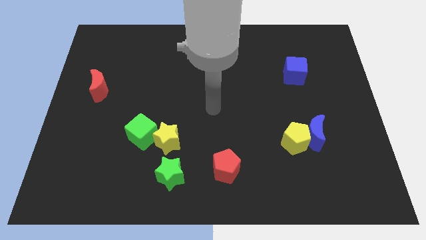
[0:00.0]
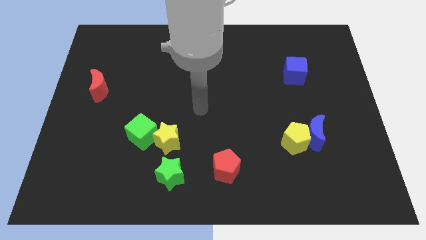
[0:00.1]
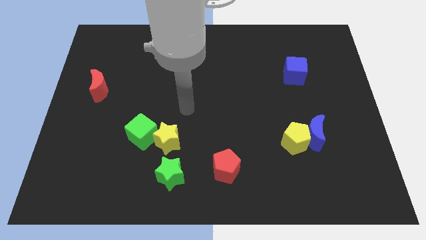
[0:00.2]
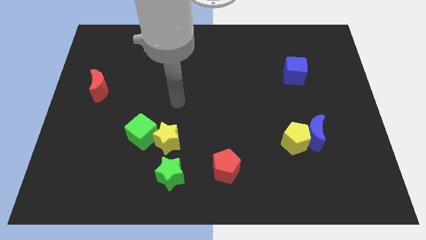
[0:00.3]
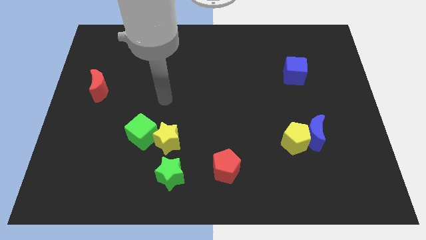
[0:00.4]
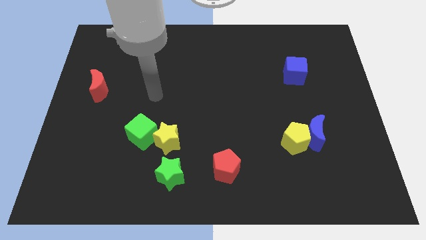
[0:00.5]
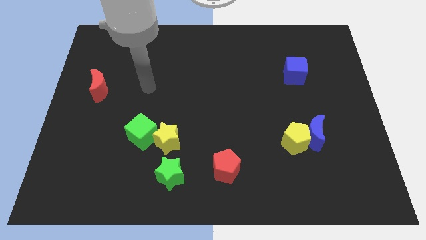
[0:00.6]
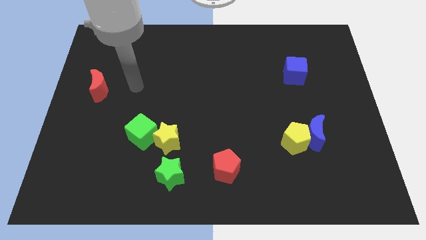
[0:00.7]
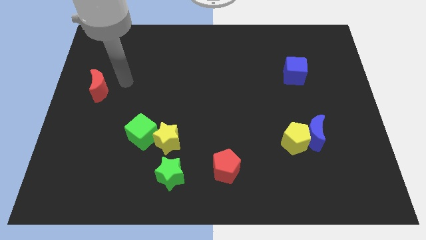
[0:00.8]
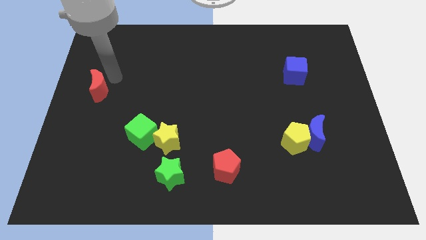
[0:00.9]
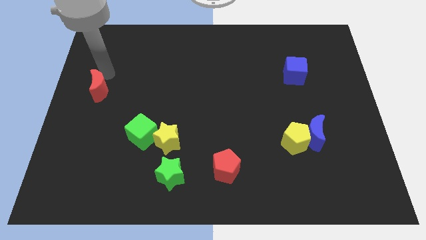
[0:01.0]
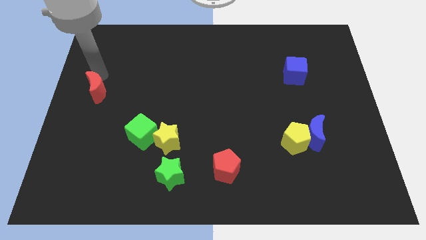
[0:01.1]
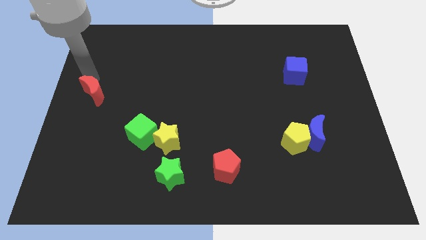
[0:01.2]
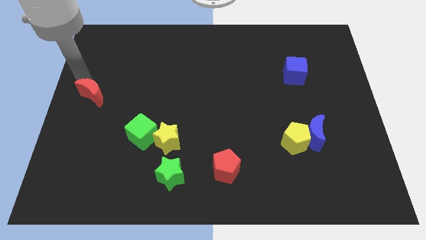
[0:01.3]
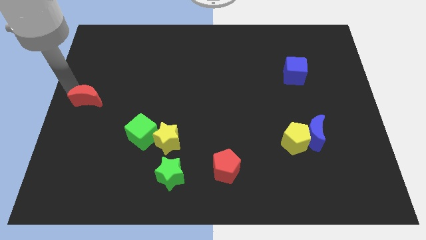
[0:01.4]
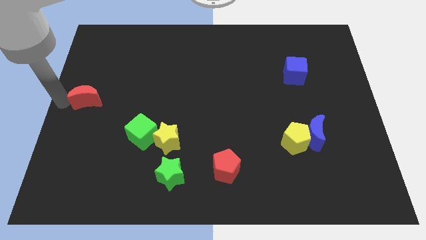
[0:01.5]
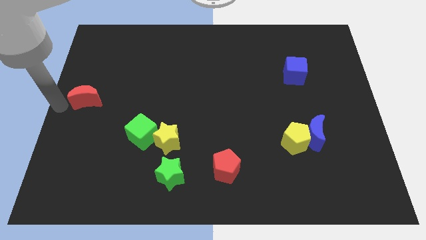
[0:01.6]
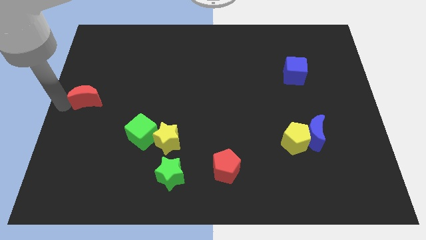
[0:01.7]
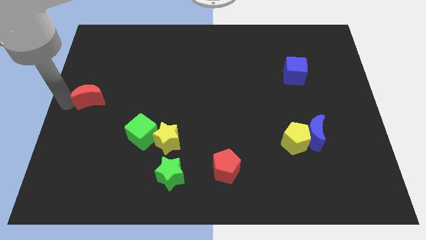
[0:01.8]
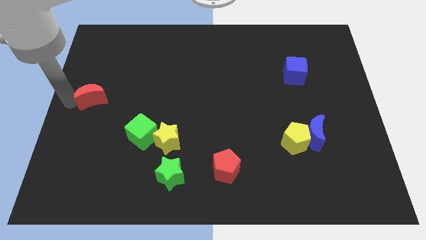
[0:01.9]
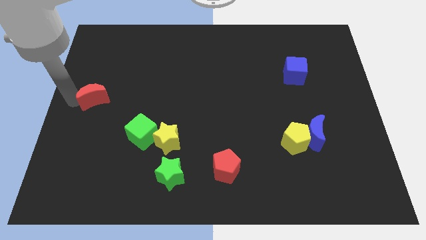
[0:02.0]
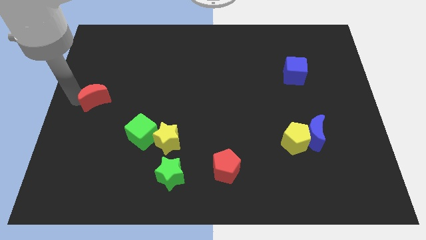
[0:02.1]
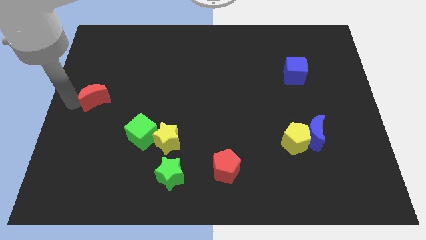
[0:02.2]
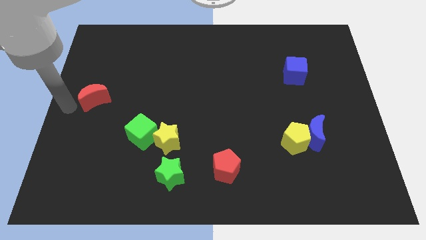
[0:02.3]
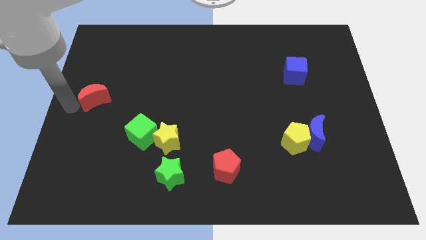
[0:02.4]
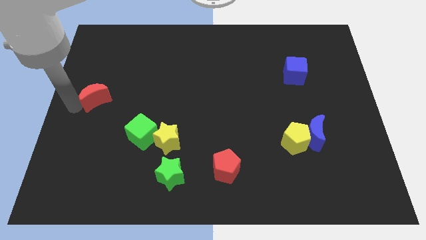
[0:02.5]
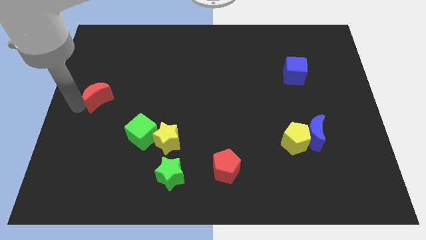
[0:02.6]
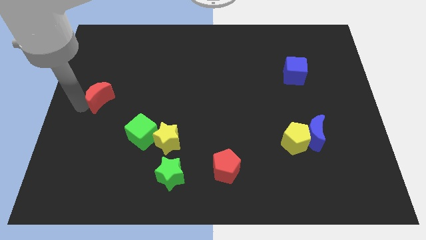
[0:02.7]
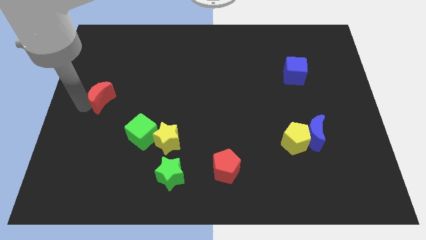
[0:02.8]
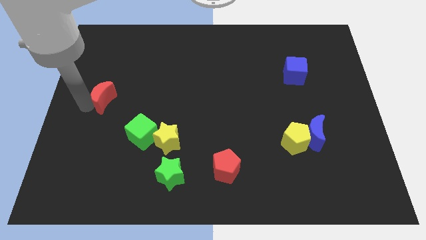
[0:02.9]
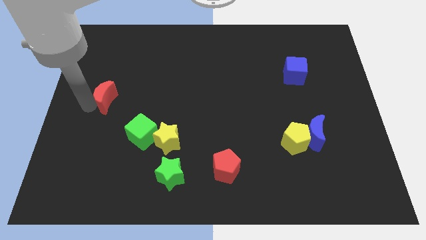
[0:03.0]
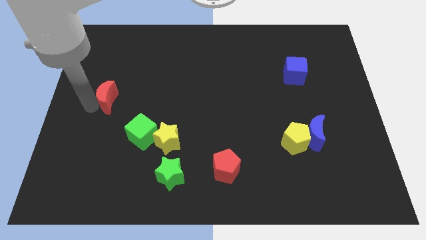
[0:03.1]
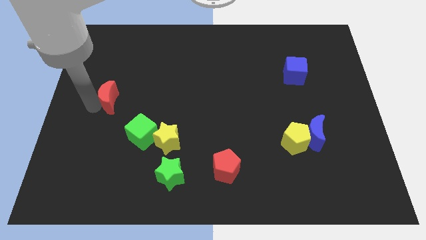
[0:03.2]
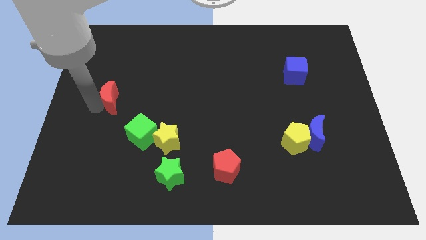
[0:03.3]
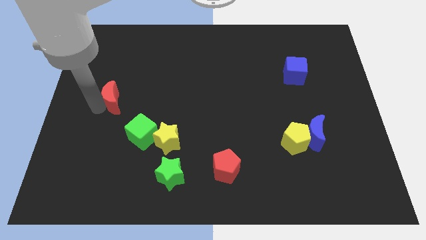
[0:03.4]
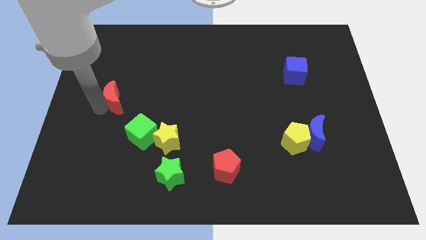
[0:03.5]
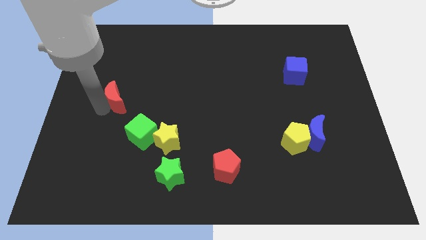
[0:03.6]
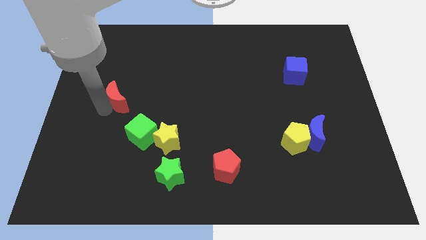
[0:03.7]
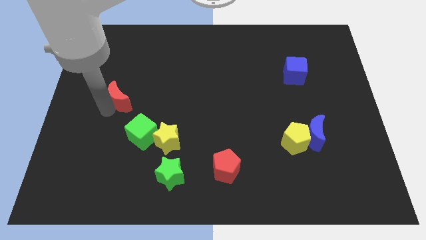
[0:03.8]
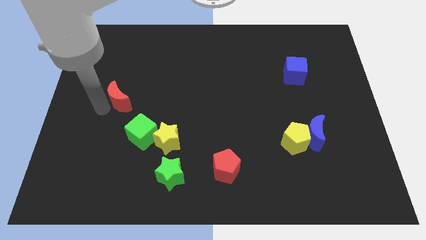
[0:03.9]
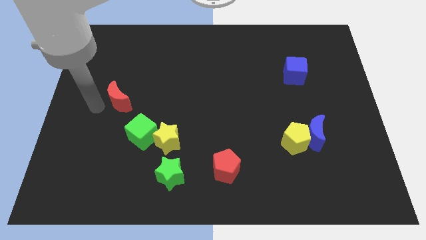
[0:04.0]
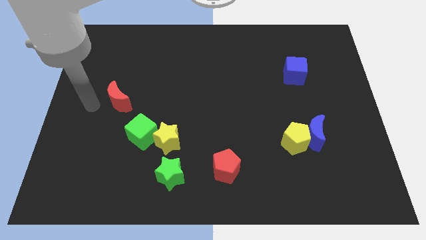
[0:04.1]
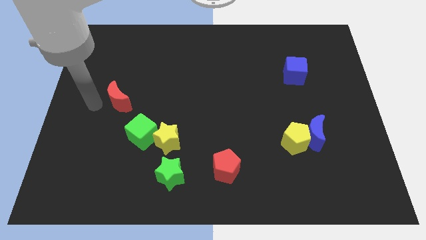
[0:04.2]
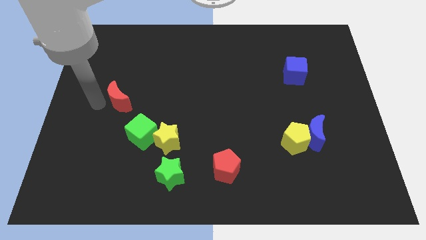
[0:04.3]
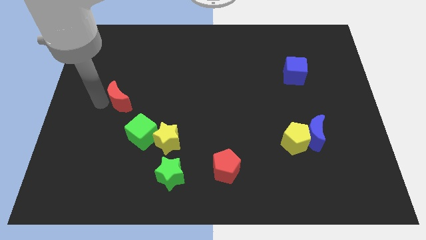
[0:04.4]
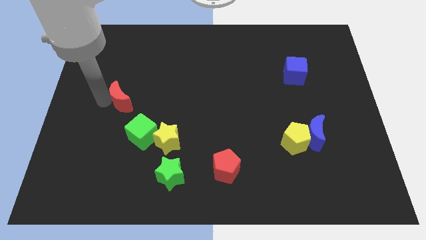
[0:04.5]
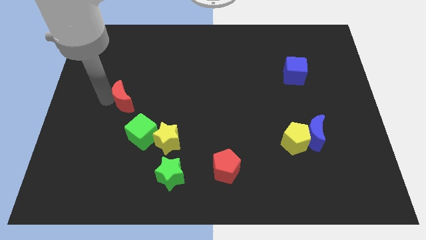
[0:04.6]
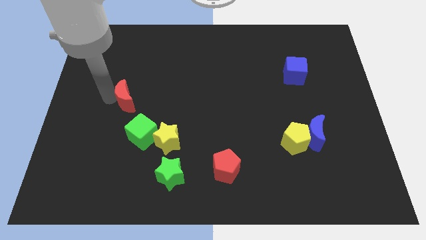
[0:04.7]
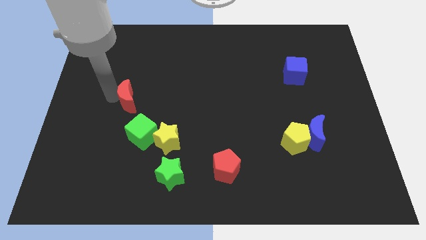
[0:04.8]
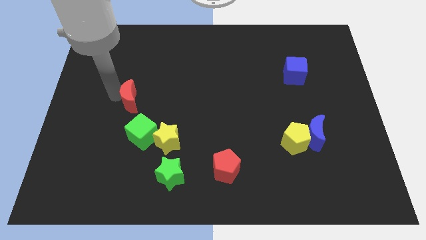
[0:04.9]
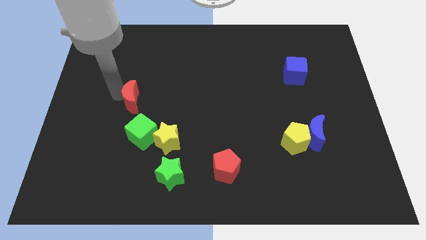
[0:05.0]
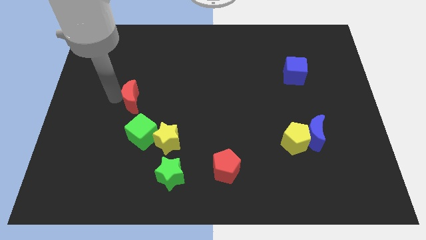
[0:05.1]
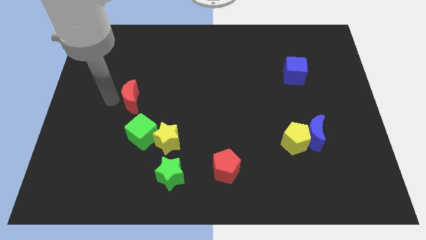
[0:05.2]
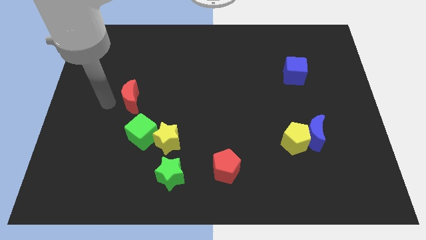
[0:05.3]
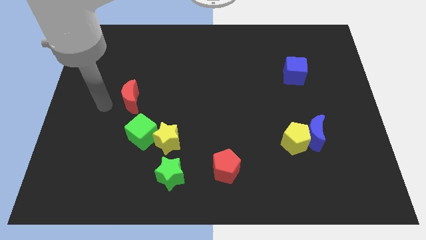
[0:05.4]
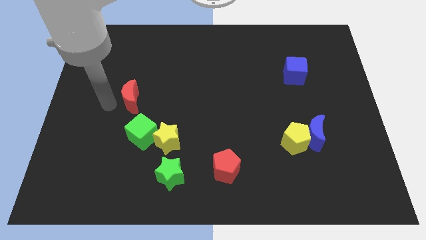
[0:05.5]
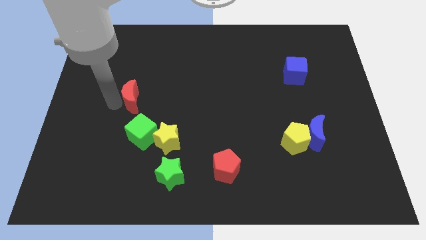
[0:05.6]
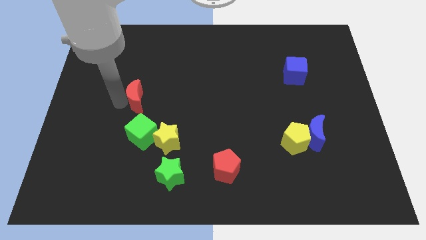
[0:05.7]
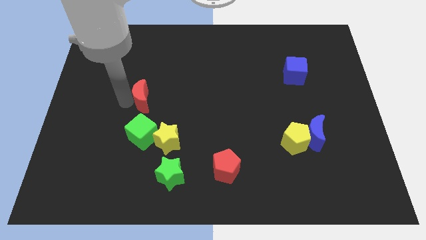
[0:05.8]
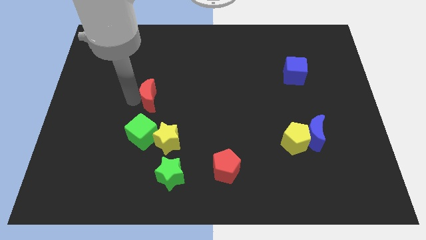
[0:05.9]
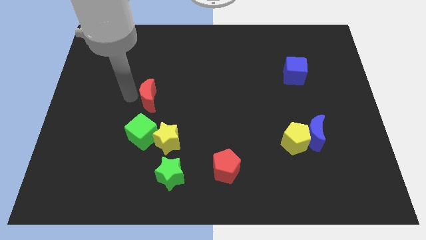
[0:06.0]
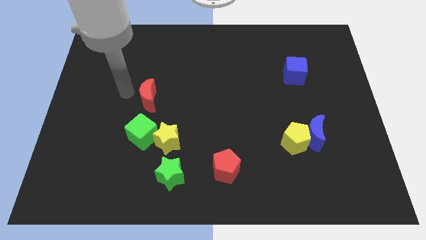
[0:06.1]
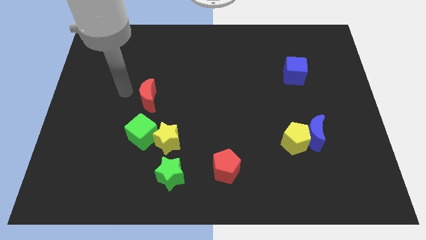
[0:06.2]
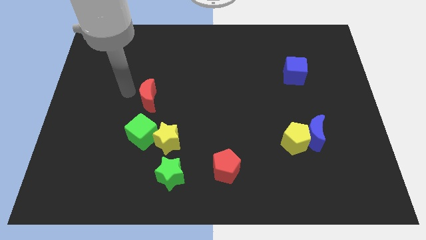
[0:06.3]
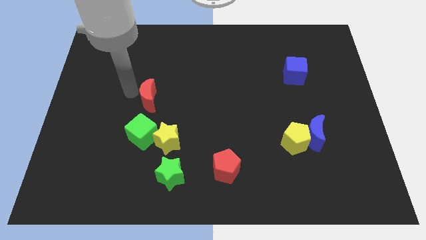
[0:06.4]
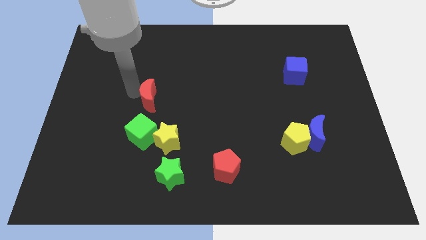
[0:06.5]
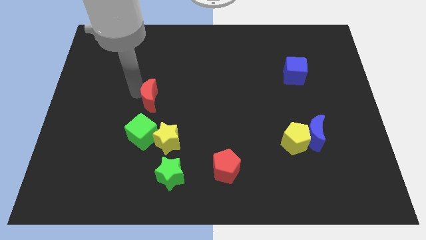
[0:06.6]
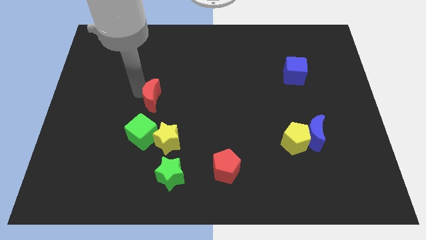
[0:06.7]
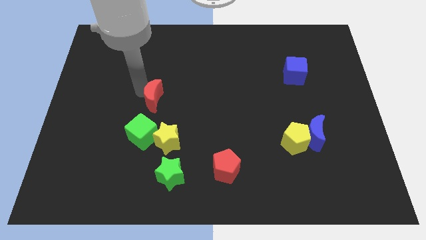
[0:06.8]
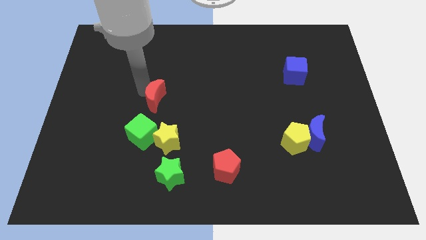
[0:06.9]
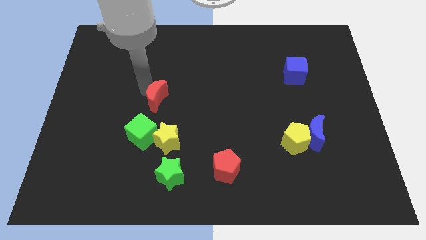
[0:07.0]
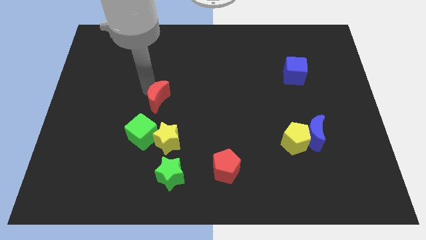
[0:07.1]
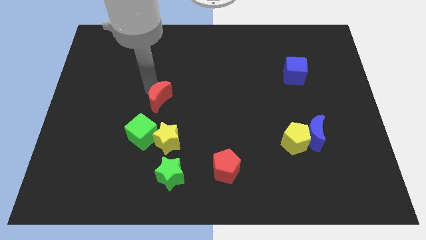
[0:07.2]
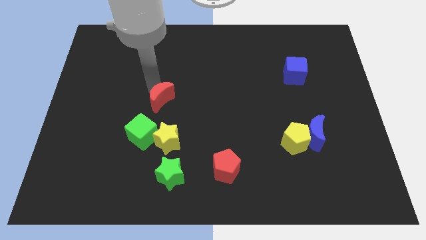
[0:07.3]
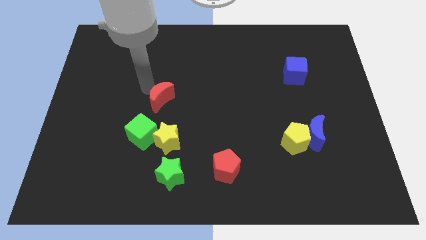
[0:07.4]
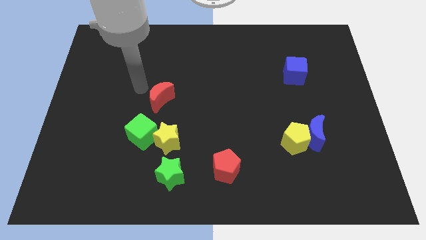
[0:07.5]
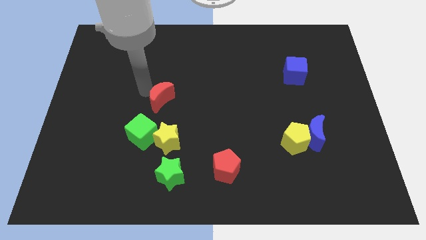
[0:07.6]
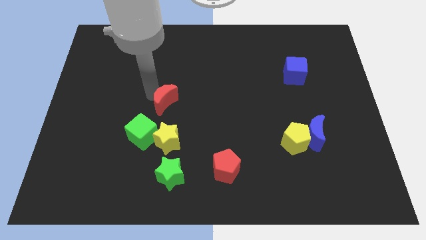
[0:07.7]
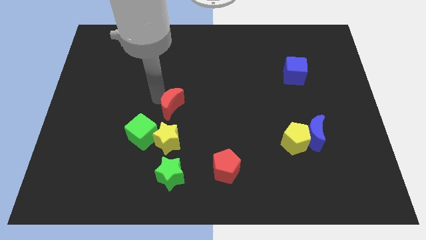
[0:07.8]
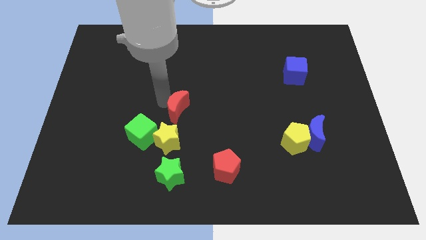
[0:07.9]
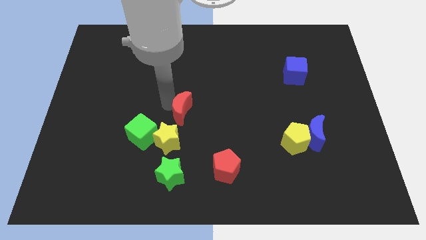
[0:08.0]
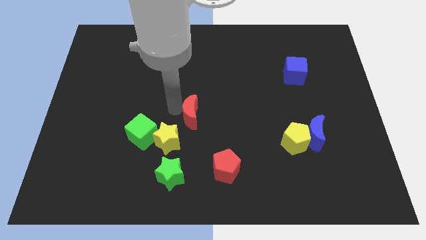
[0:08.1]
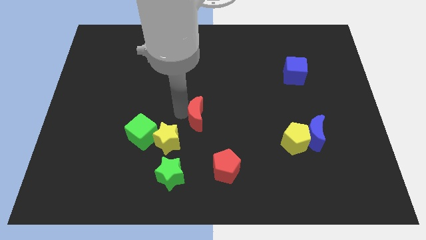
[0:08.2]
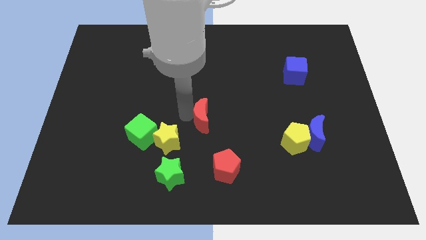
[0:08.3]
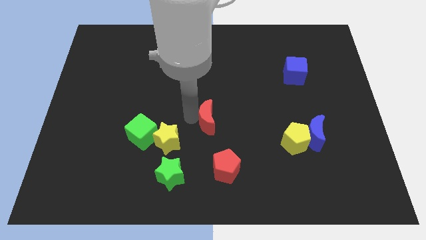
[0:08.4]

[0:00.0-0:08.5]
slide the red moon above the red pentagon

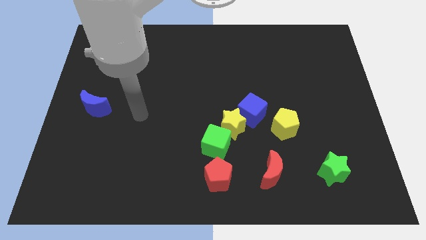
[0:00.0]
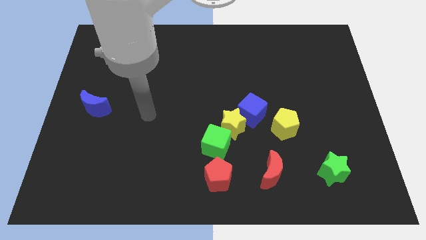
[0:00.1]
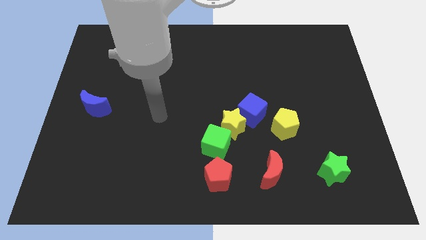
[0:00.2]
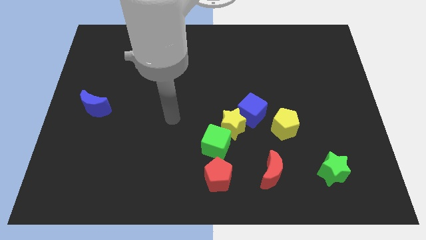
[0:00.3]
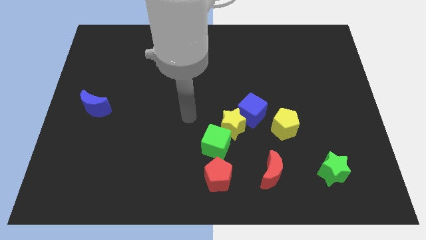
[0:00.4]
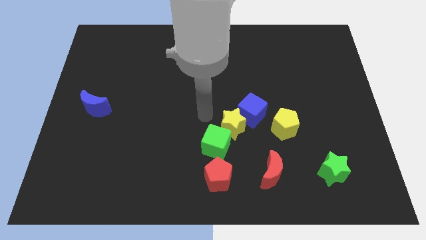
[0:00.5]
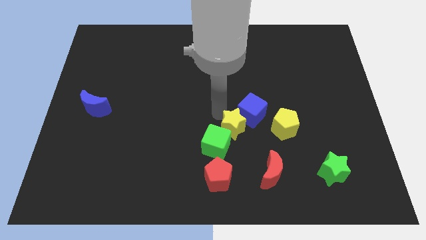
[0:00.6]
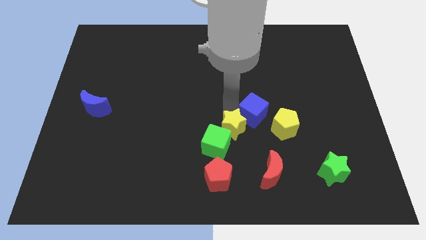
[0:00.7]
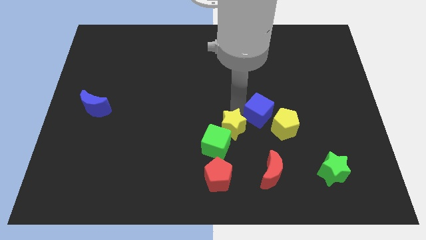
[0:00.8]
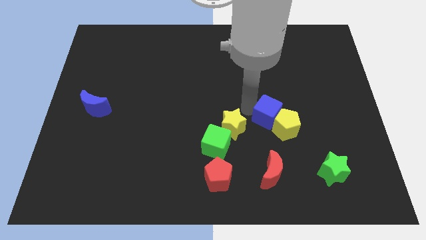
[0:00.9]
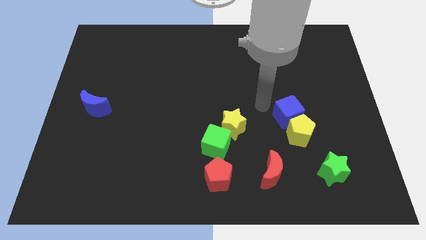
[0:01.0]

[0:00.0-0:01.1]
move the yellow pentagon diagonally up and to the right of the red moon
